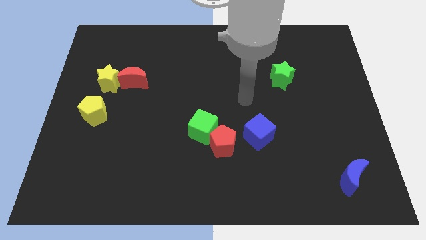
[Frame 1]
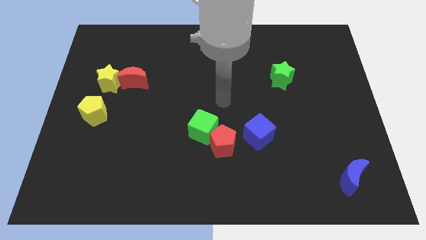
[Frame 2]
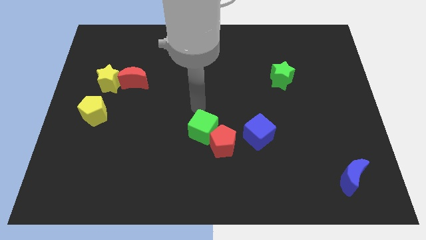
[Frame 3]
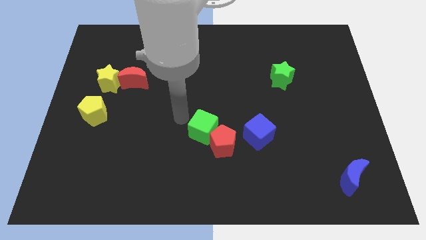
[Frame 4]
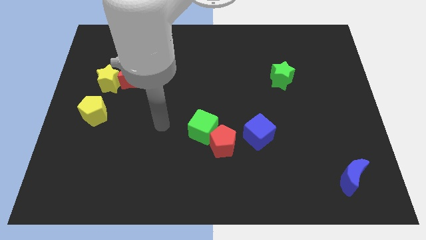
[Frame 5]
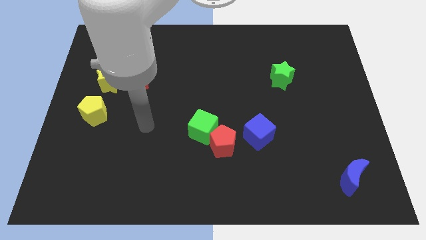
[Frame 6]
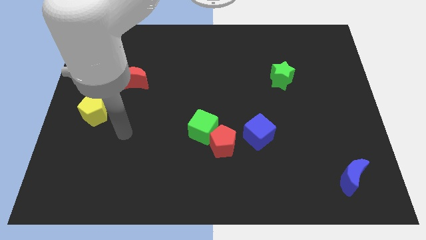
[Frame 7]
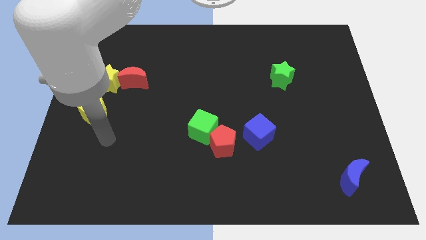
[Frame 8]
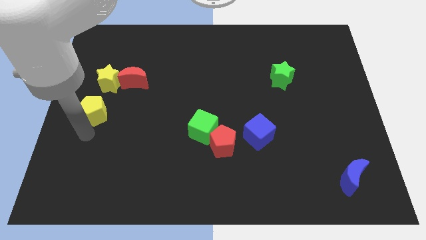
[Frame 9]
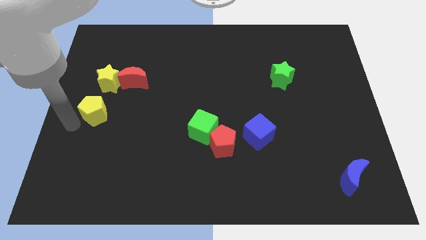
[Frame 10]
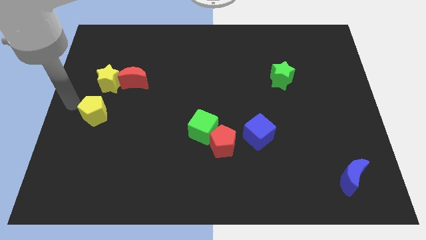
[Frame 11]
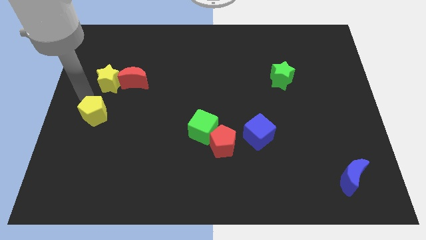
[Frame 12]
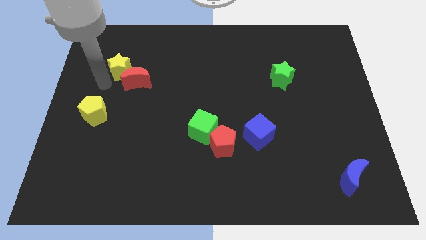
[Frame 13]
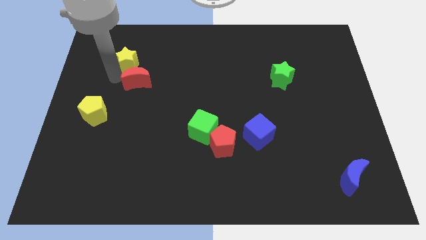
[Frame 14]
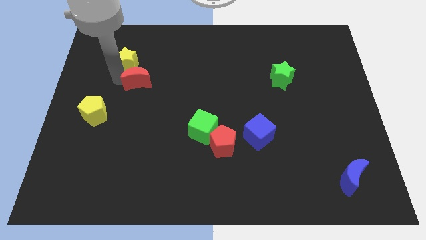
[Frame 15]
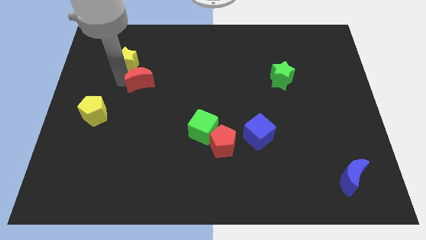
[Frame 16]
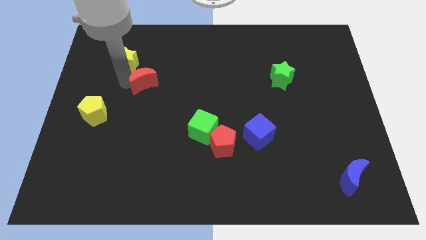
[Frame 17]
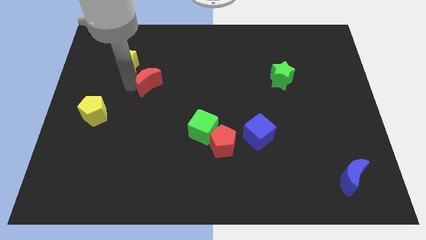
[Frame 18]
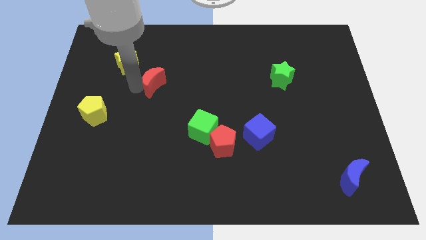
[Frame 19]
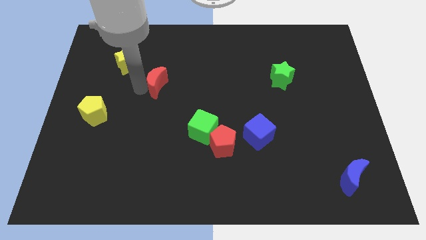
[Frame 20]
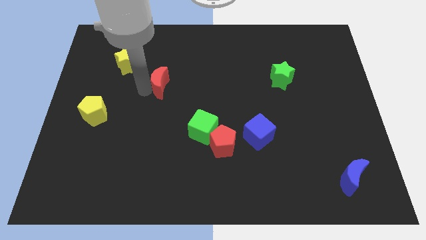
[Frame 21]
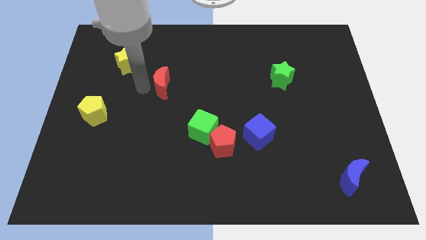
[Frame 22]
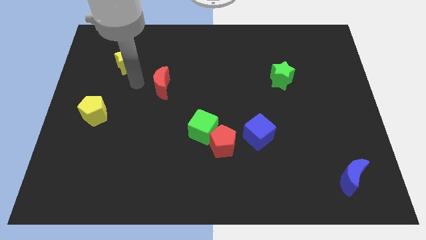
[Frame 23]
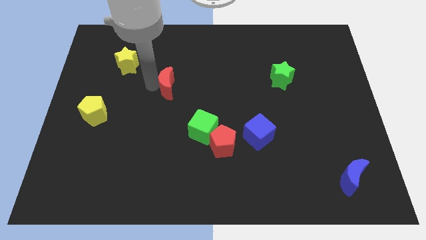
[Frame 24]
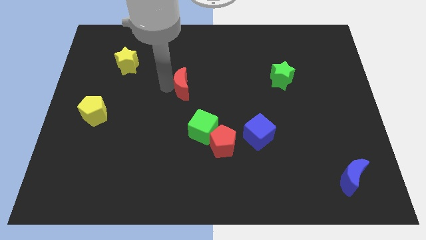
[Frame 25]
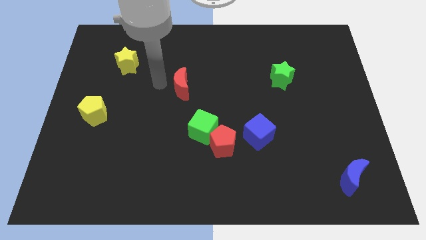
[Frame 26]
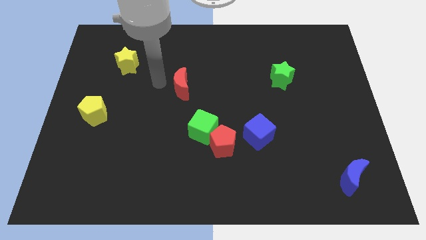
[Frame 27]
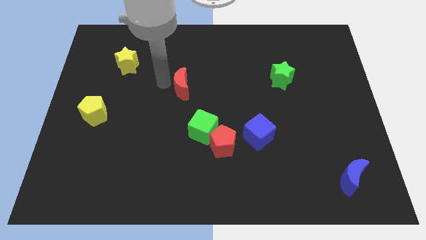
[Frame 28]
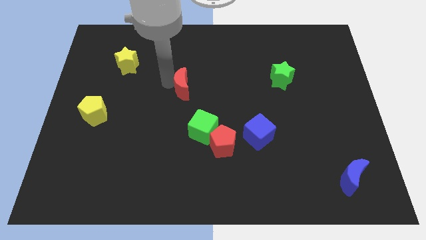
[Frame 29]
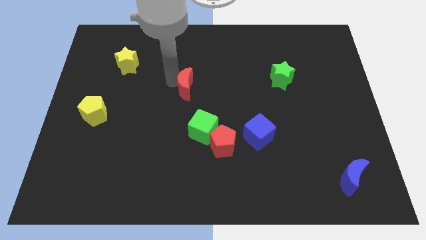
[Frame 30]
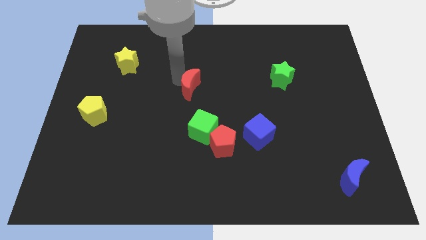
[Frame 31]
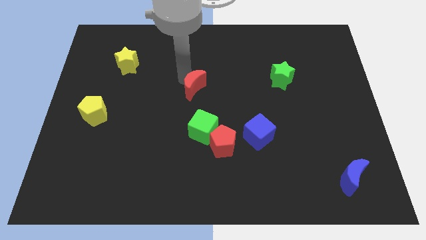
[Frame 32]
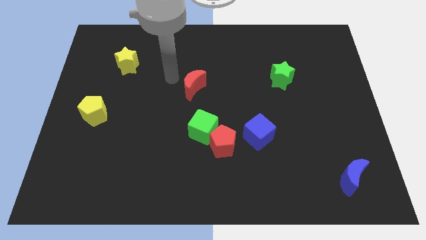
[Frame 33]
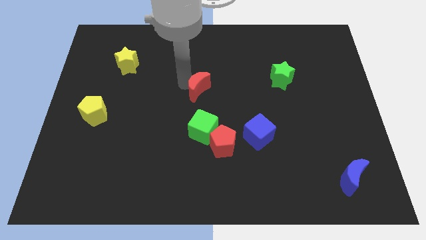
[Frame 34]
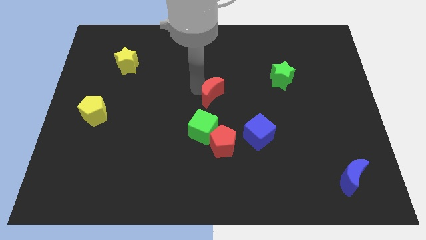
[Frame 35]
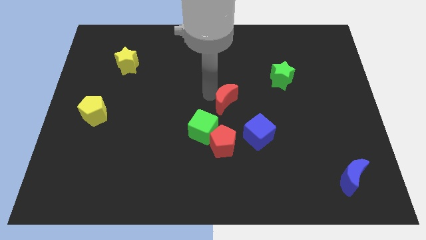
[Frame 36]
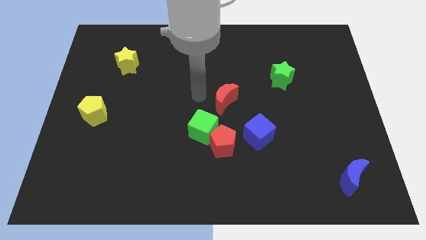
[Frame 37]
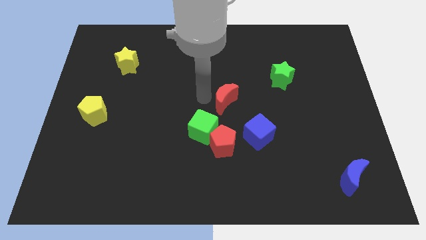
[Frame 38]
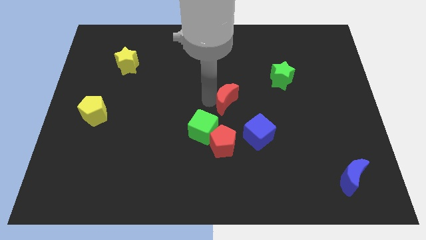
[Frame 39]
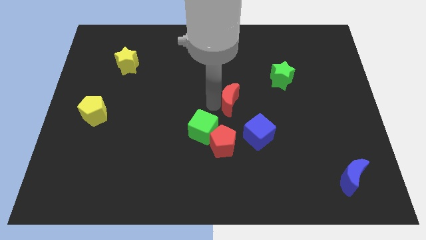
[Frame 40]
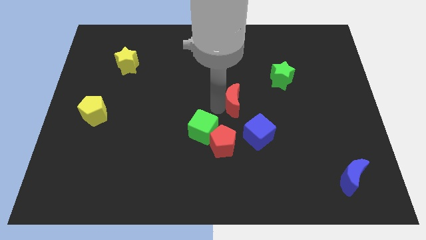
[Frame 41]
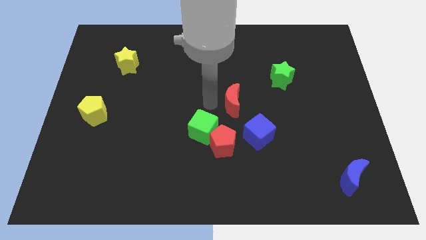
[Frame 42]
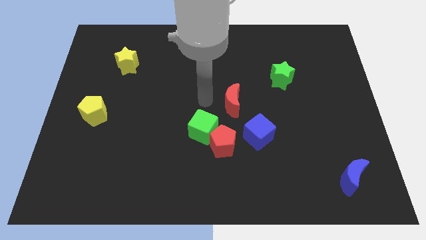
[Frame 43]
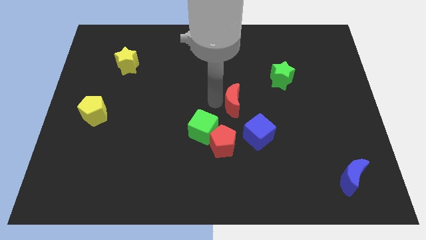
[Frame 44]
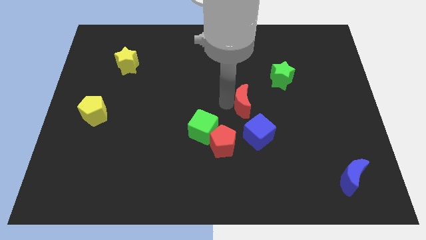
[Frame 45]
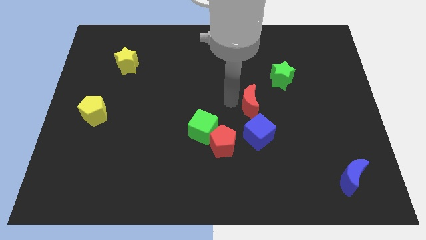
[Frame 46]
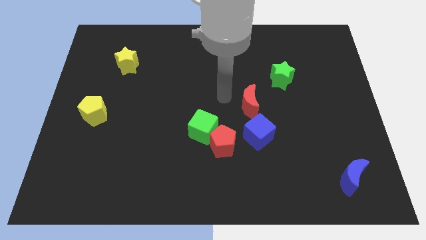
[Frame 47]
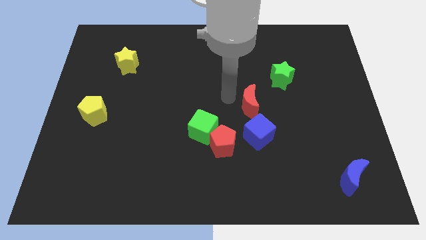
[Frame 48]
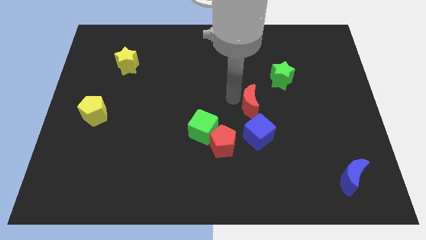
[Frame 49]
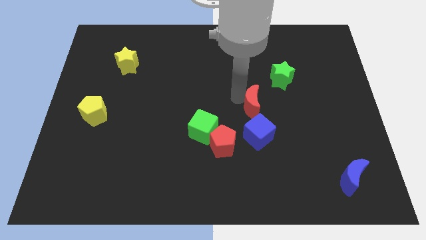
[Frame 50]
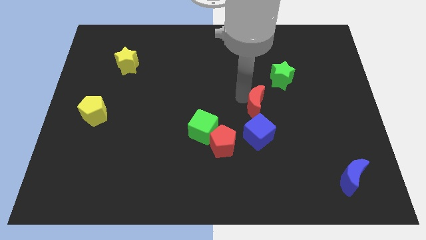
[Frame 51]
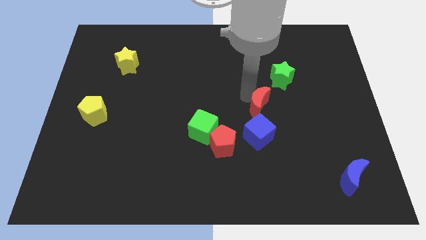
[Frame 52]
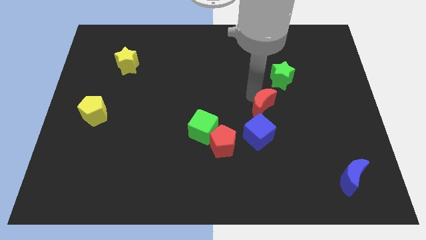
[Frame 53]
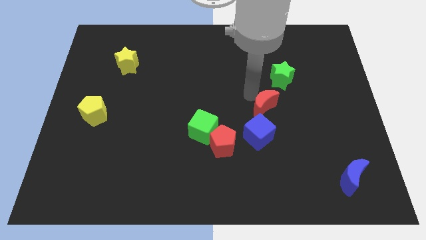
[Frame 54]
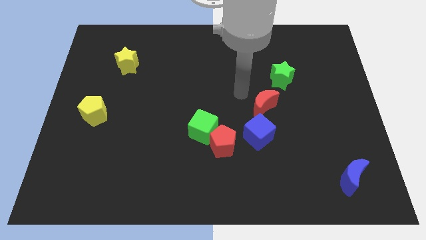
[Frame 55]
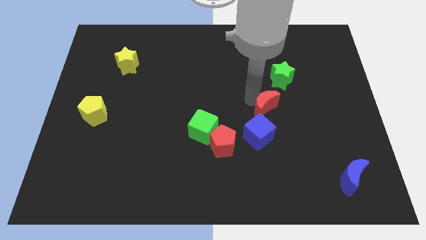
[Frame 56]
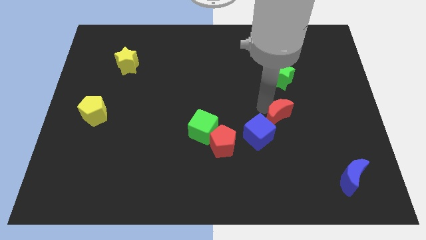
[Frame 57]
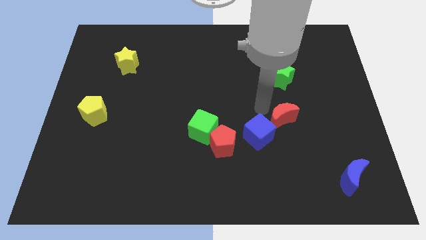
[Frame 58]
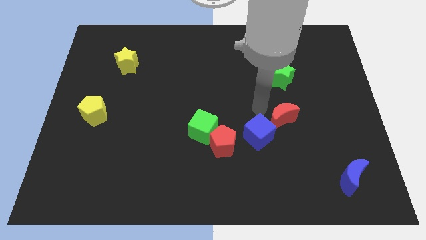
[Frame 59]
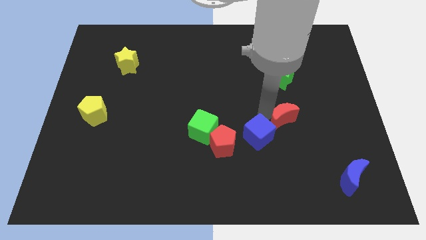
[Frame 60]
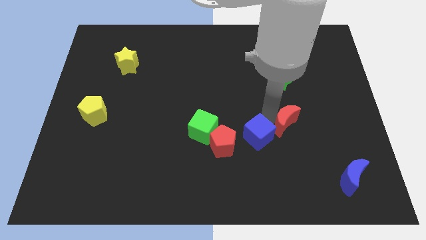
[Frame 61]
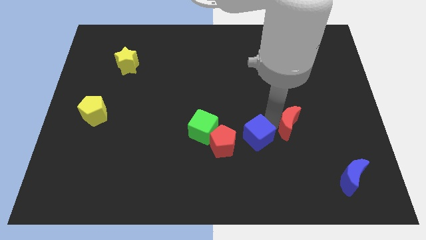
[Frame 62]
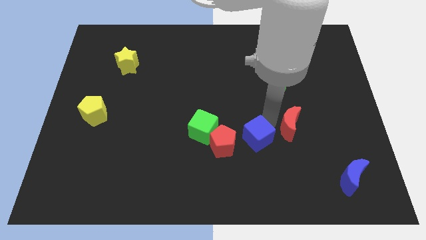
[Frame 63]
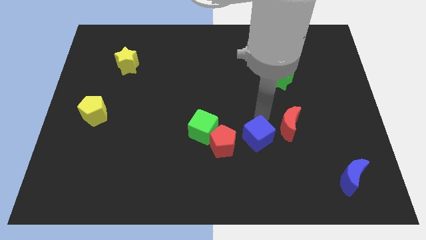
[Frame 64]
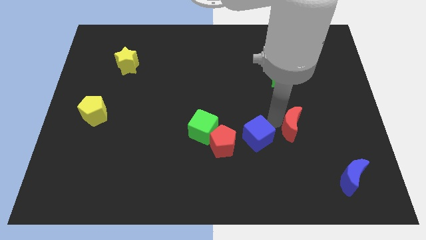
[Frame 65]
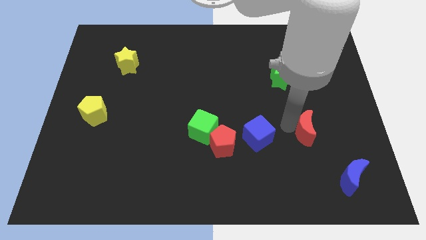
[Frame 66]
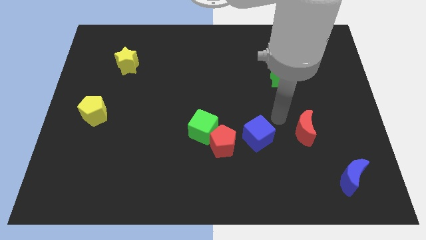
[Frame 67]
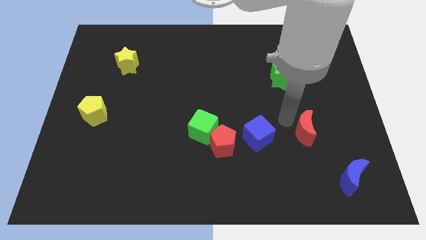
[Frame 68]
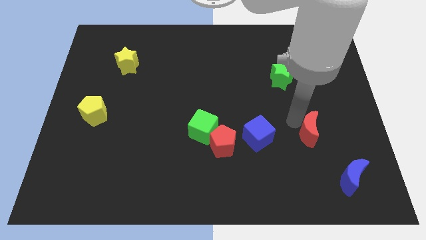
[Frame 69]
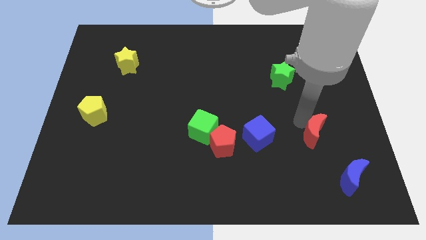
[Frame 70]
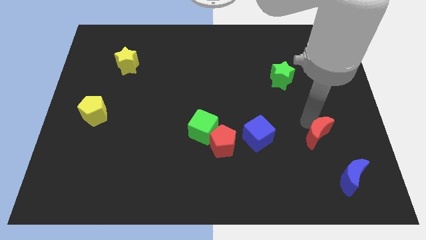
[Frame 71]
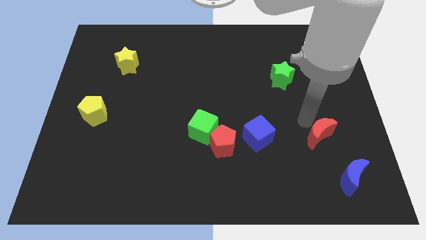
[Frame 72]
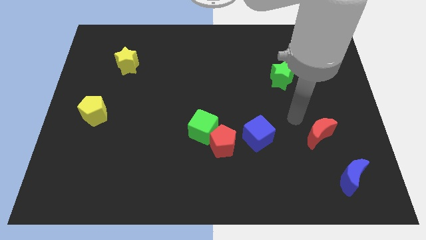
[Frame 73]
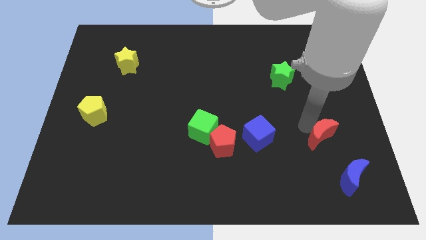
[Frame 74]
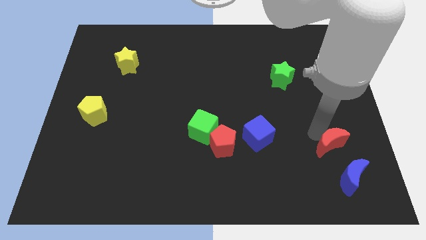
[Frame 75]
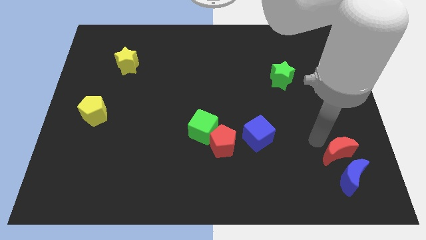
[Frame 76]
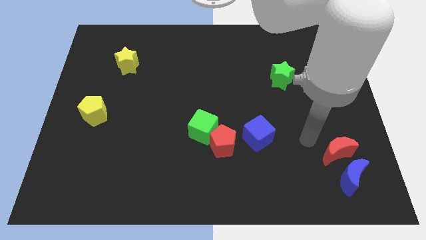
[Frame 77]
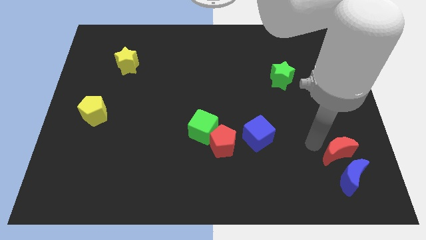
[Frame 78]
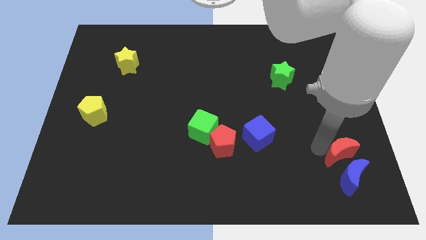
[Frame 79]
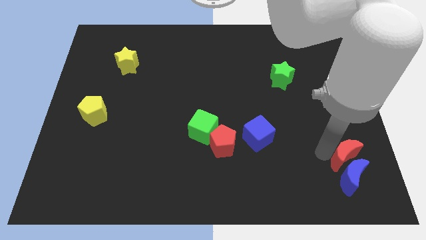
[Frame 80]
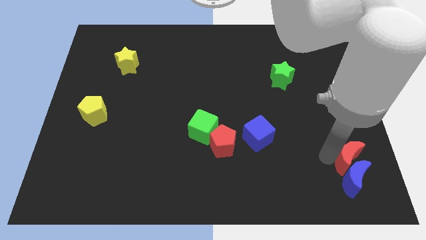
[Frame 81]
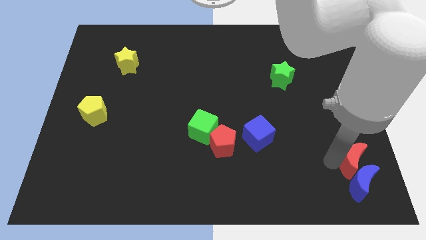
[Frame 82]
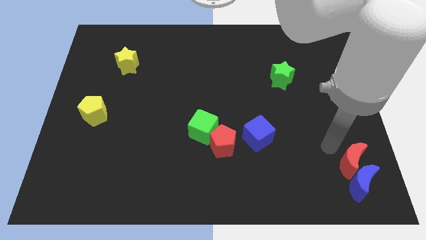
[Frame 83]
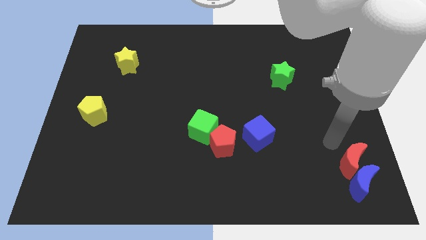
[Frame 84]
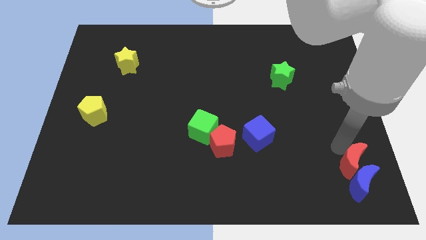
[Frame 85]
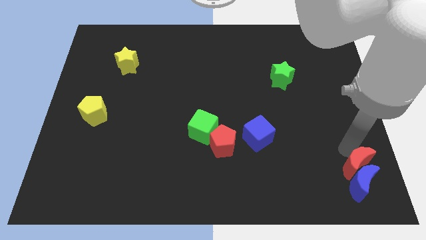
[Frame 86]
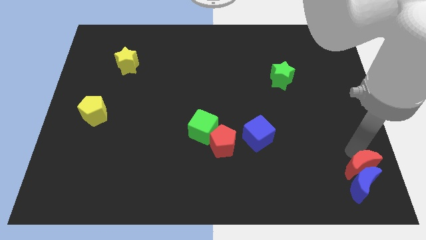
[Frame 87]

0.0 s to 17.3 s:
slide the red moon to the lower right corner
